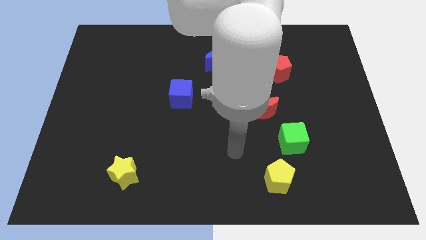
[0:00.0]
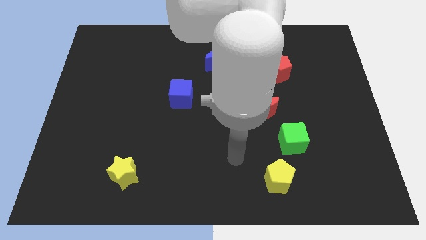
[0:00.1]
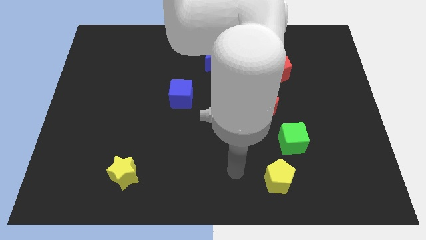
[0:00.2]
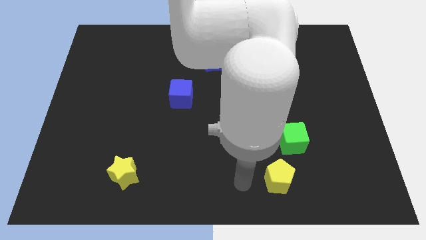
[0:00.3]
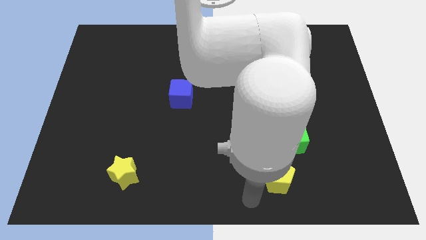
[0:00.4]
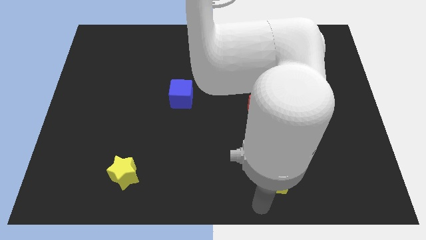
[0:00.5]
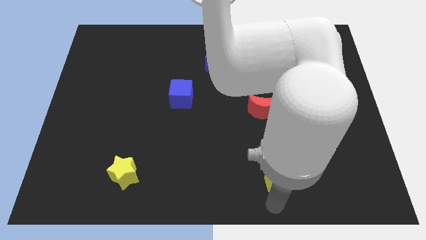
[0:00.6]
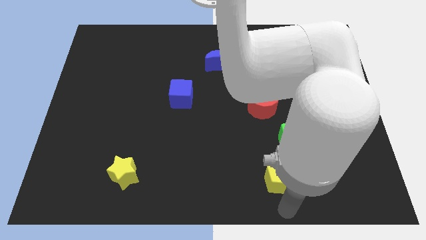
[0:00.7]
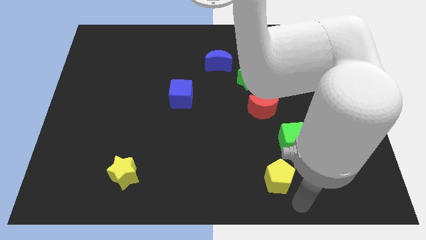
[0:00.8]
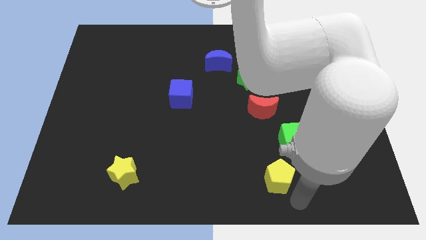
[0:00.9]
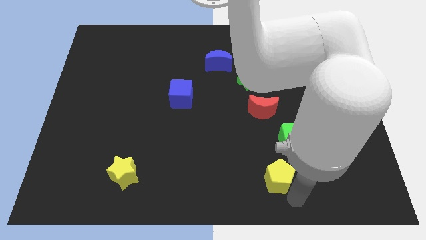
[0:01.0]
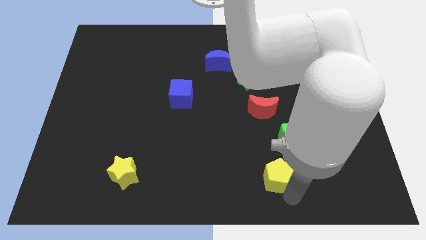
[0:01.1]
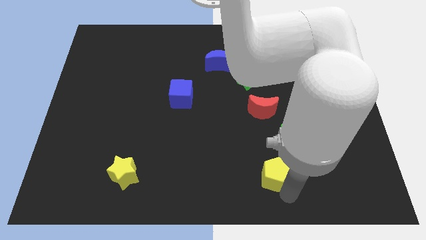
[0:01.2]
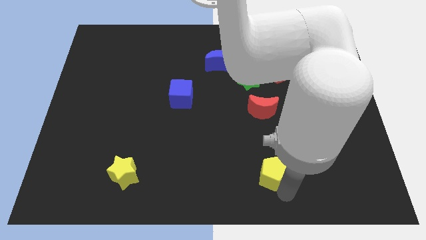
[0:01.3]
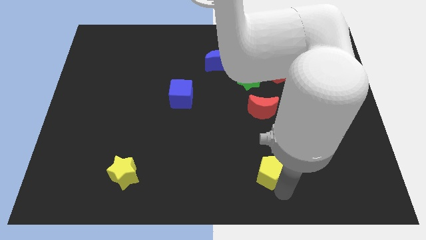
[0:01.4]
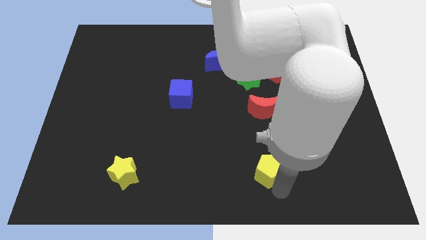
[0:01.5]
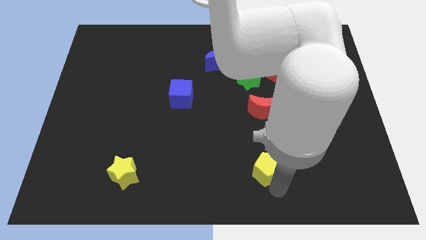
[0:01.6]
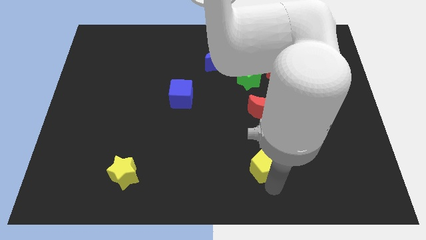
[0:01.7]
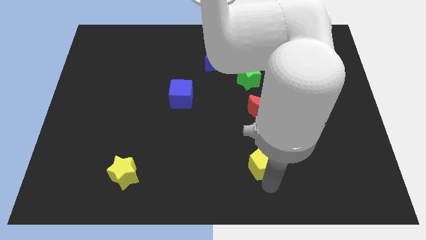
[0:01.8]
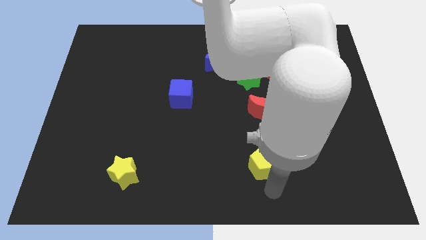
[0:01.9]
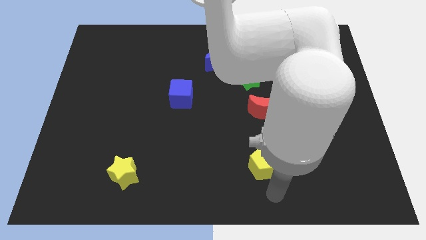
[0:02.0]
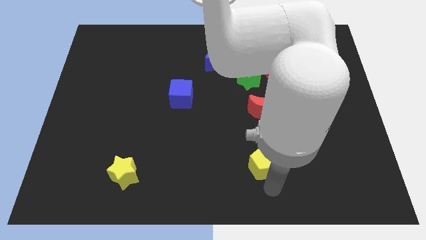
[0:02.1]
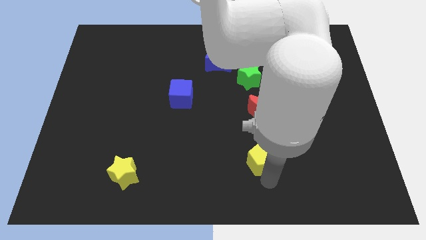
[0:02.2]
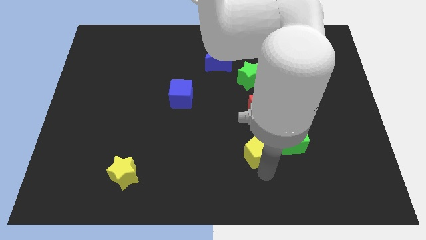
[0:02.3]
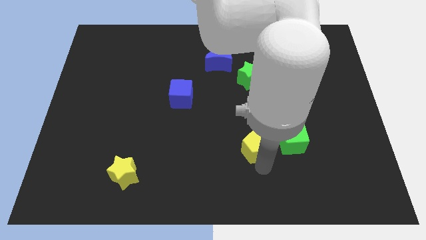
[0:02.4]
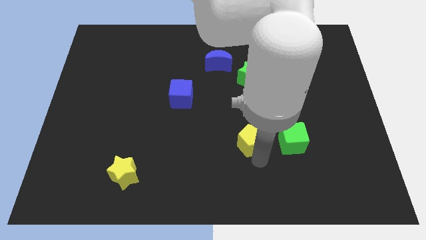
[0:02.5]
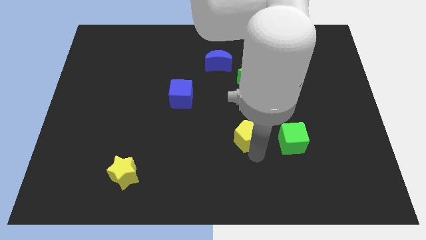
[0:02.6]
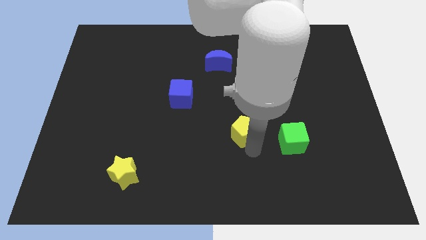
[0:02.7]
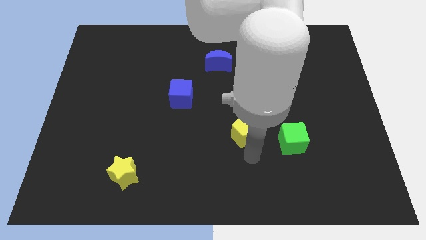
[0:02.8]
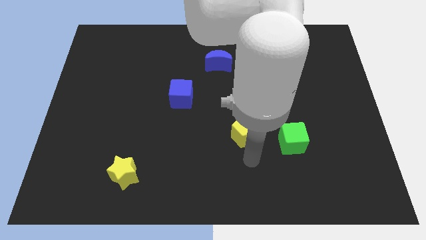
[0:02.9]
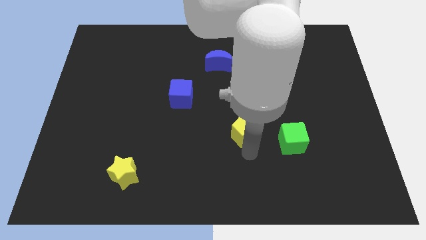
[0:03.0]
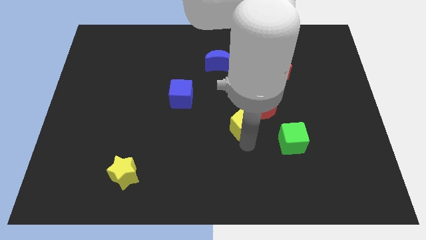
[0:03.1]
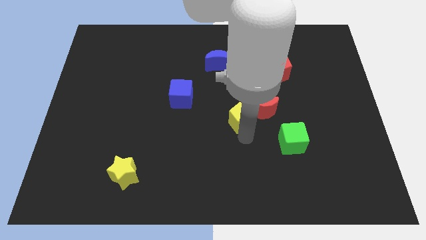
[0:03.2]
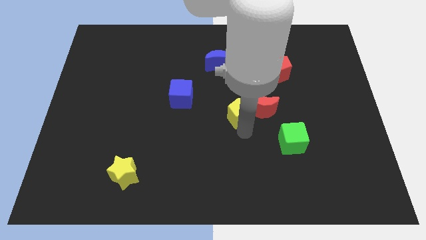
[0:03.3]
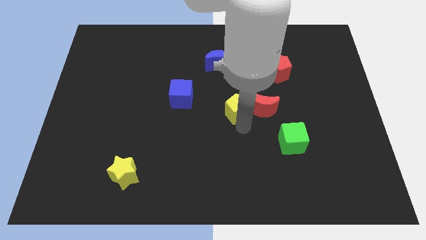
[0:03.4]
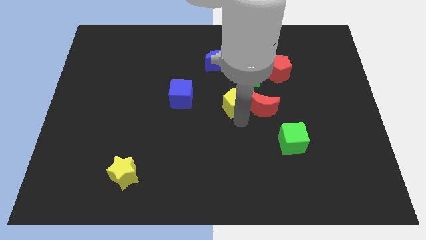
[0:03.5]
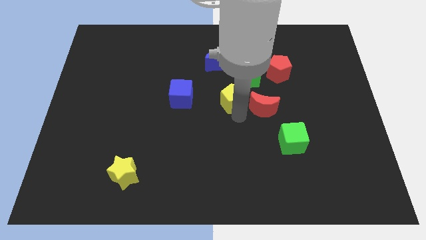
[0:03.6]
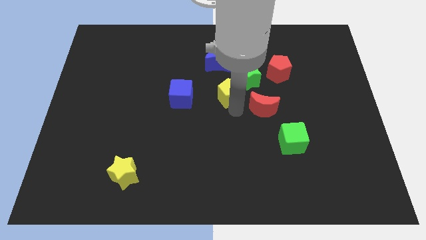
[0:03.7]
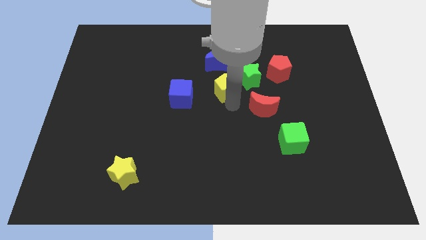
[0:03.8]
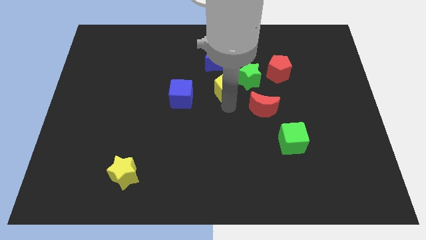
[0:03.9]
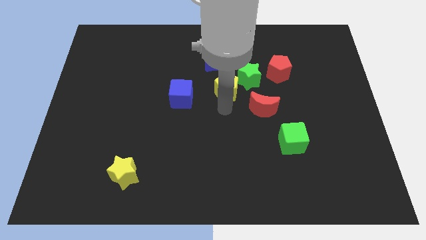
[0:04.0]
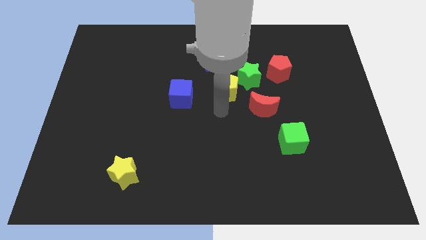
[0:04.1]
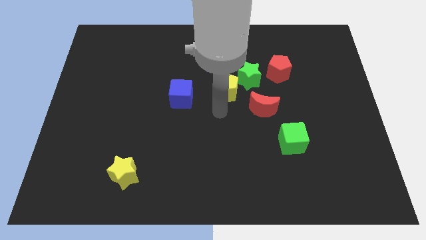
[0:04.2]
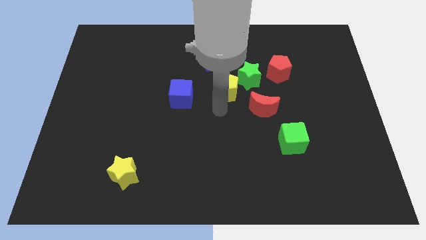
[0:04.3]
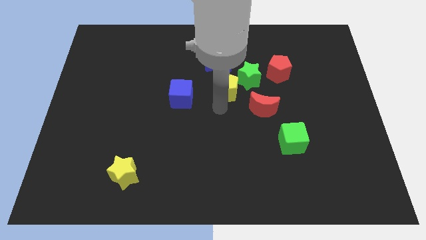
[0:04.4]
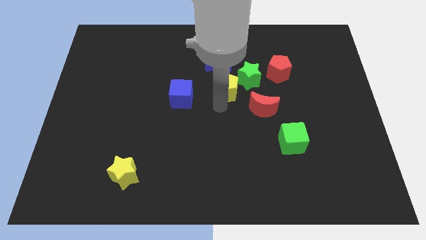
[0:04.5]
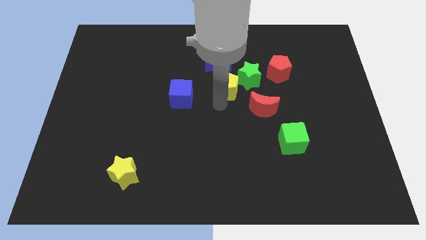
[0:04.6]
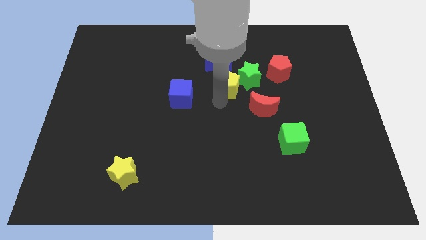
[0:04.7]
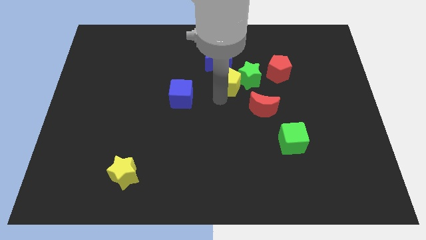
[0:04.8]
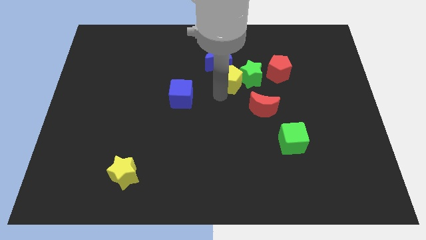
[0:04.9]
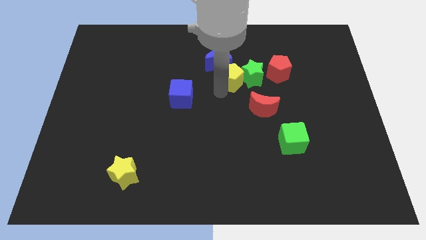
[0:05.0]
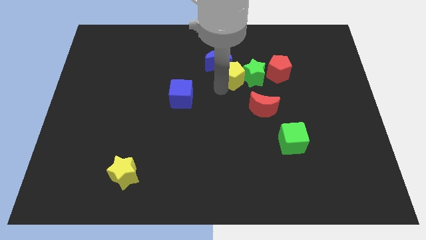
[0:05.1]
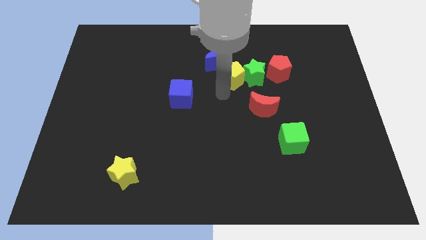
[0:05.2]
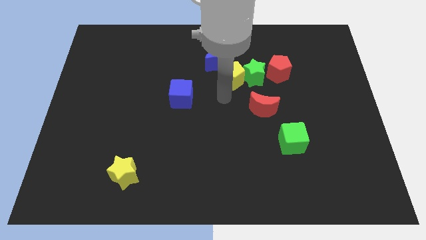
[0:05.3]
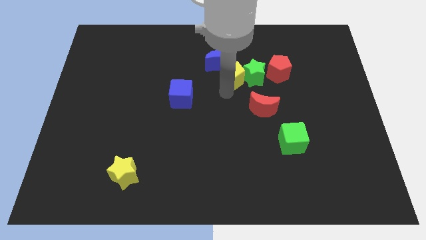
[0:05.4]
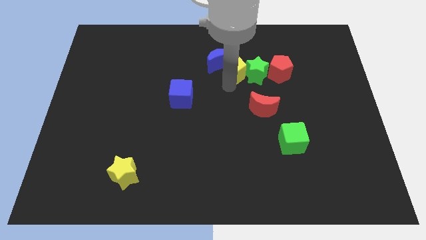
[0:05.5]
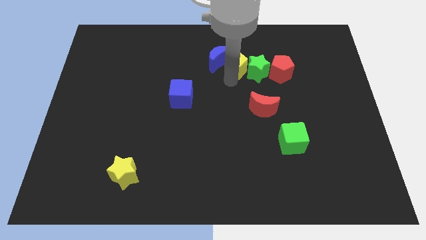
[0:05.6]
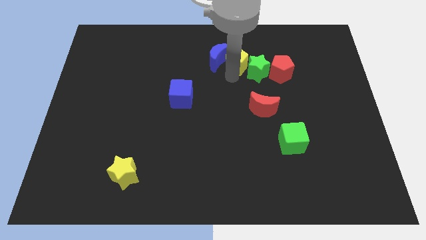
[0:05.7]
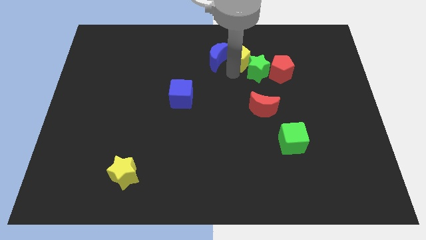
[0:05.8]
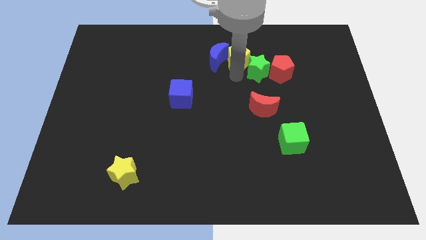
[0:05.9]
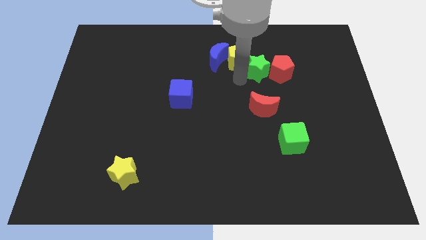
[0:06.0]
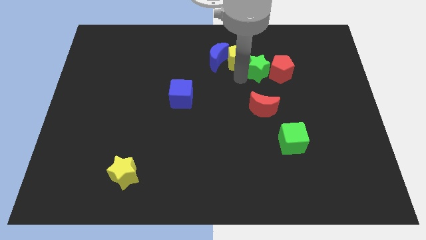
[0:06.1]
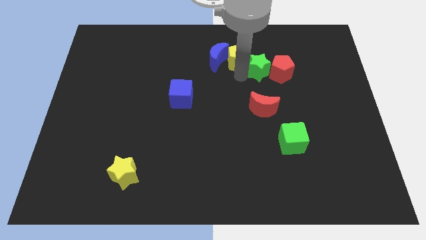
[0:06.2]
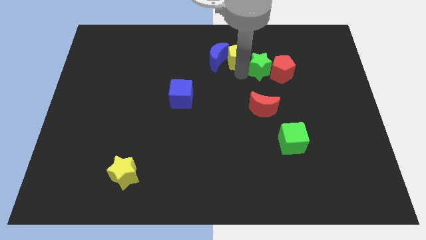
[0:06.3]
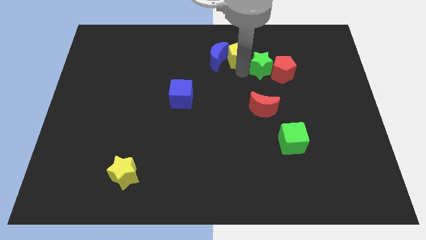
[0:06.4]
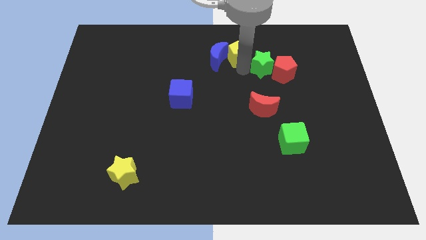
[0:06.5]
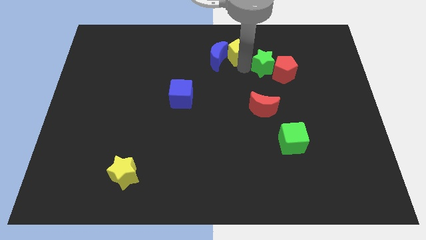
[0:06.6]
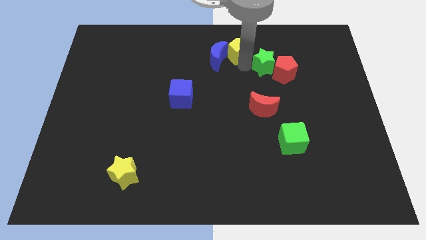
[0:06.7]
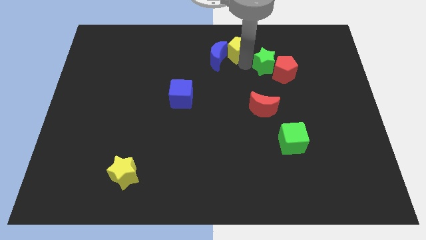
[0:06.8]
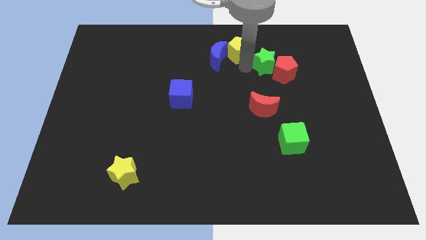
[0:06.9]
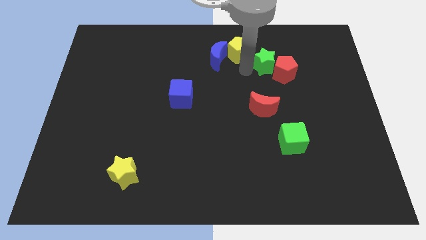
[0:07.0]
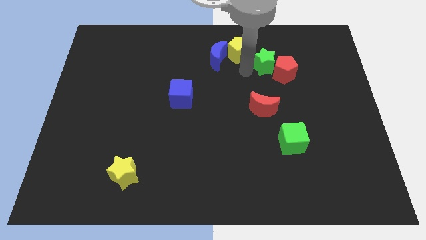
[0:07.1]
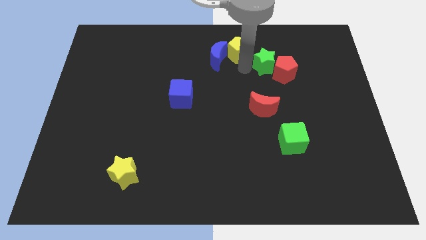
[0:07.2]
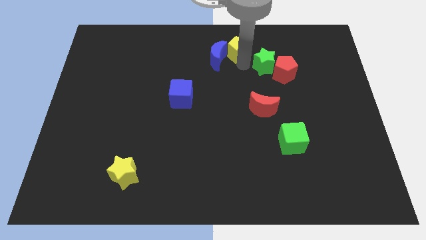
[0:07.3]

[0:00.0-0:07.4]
slide the yellow pentagon to the top side
